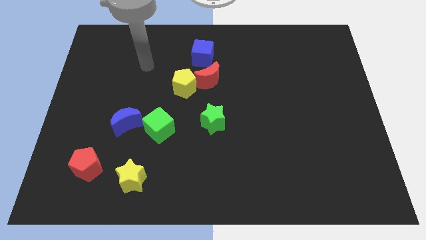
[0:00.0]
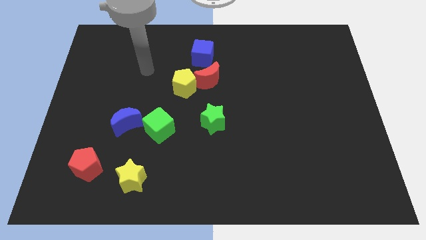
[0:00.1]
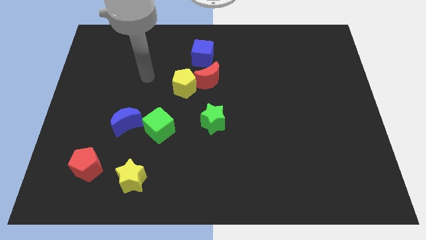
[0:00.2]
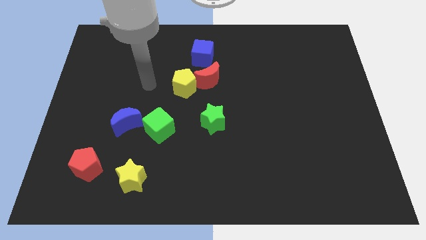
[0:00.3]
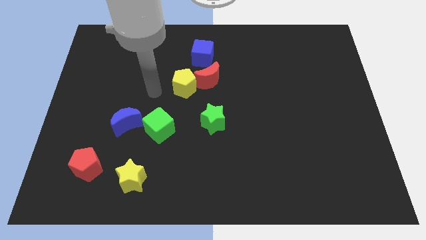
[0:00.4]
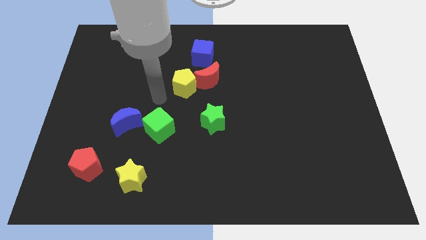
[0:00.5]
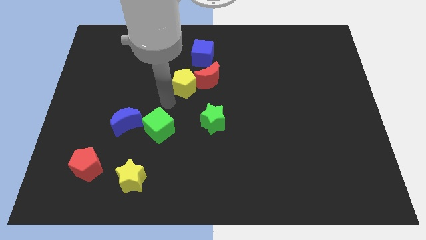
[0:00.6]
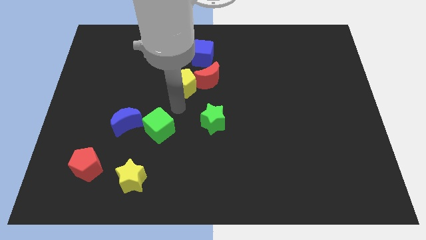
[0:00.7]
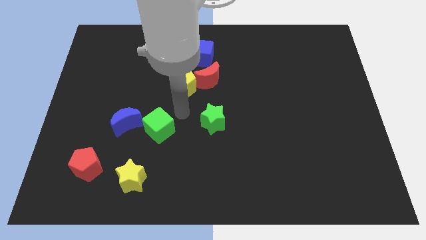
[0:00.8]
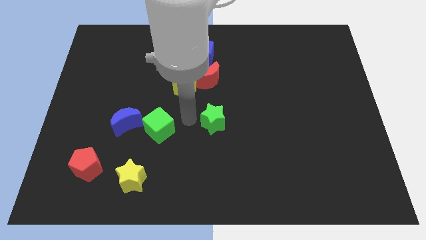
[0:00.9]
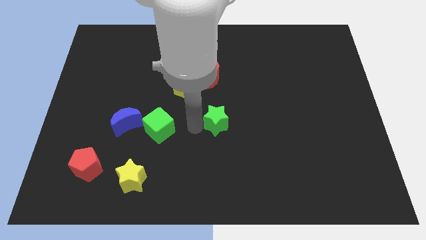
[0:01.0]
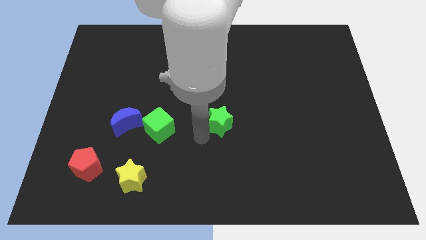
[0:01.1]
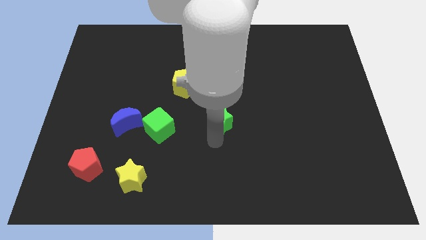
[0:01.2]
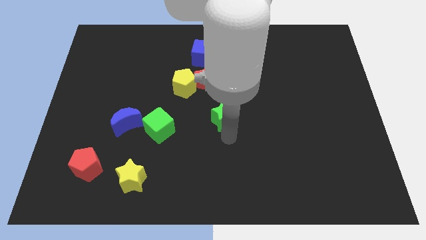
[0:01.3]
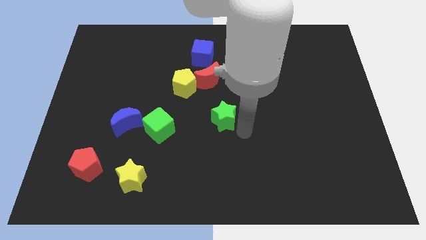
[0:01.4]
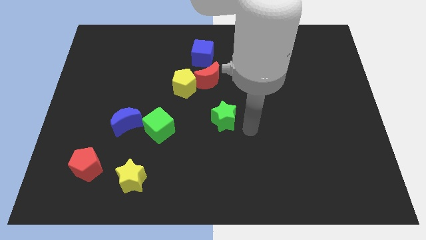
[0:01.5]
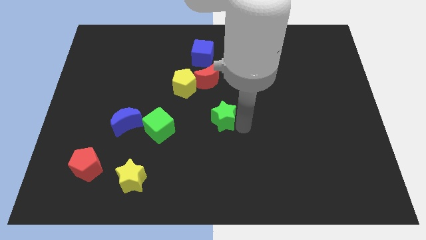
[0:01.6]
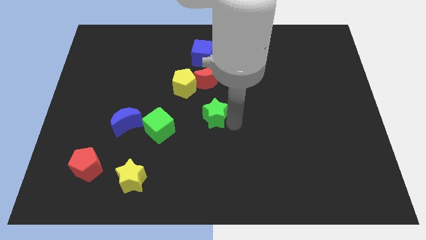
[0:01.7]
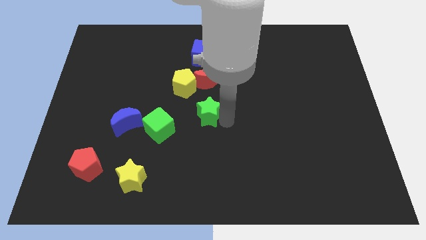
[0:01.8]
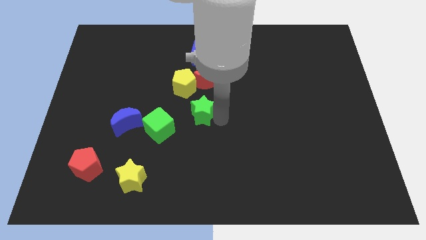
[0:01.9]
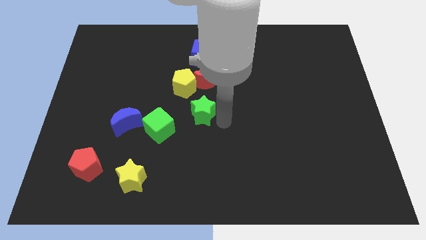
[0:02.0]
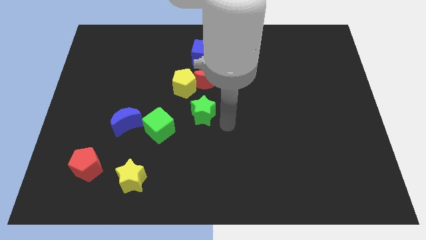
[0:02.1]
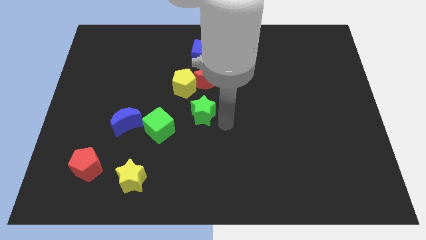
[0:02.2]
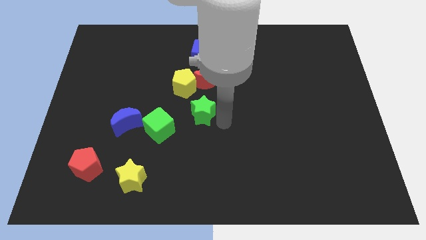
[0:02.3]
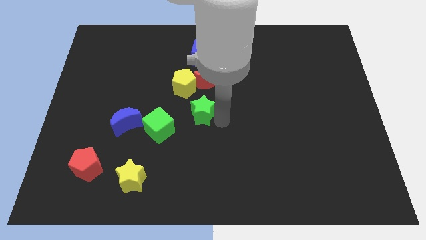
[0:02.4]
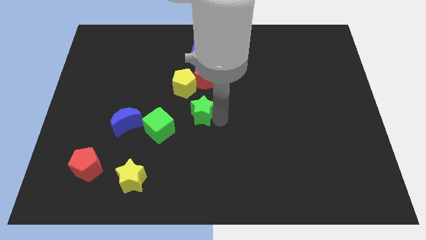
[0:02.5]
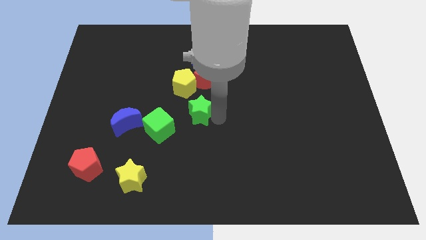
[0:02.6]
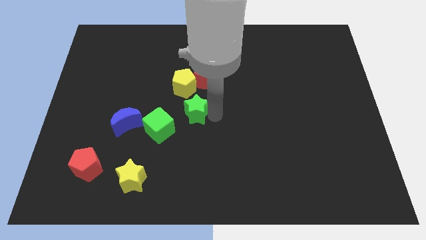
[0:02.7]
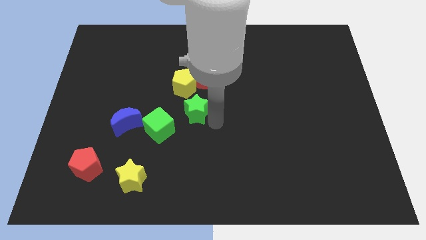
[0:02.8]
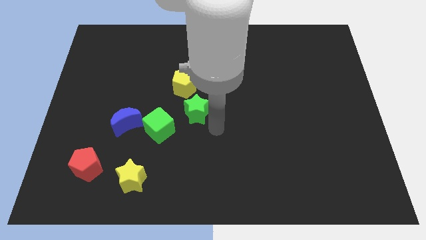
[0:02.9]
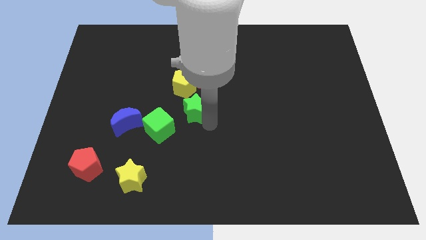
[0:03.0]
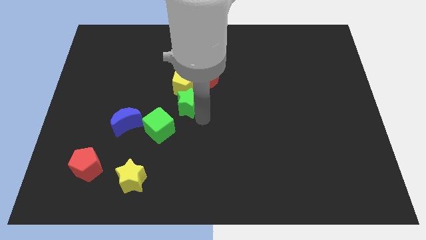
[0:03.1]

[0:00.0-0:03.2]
push the green star a little bit upwards and to the left diagonally

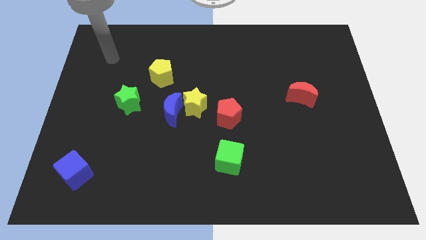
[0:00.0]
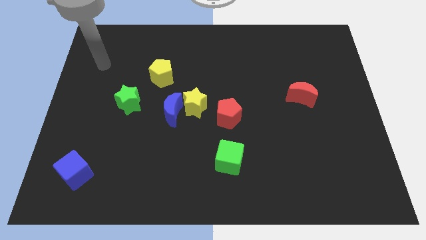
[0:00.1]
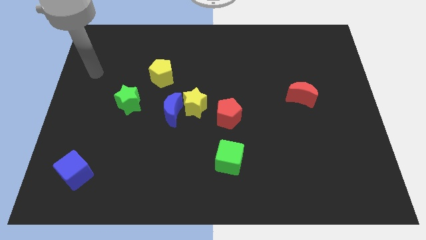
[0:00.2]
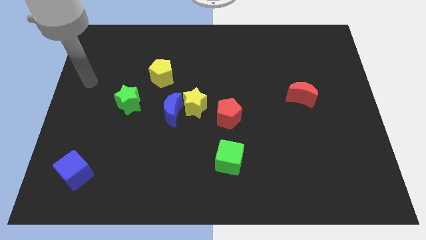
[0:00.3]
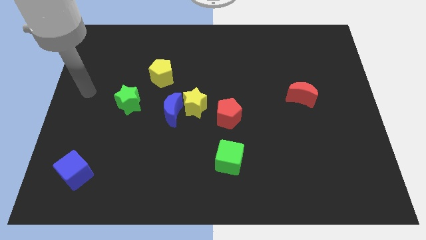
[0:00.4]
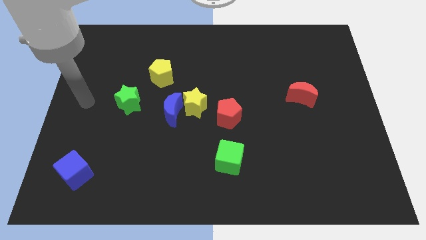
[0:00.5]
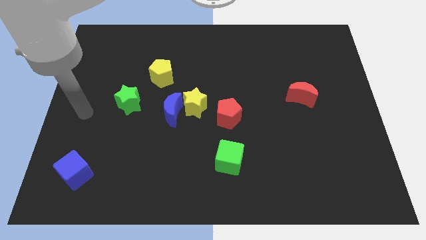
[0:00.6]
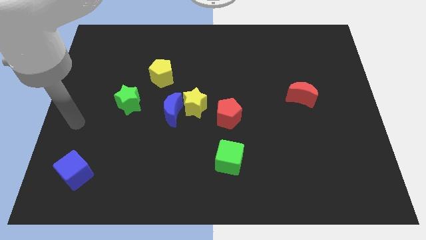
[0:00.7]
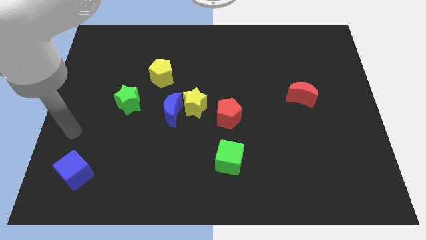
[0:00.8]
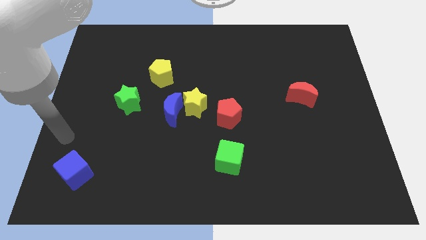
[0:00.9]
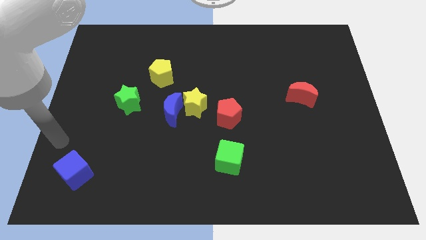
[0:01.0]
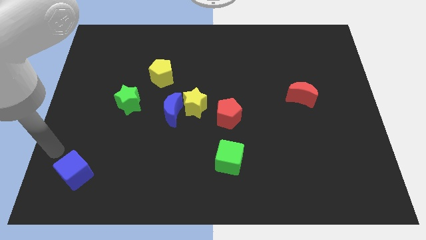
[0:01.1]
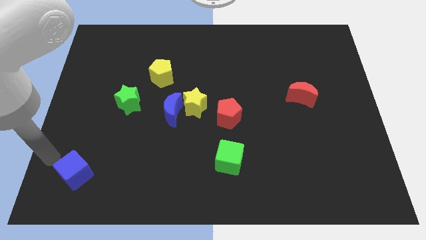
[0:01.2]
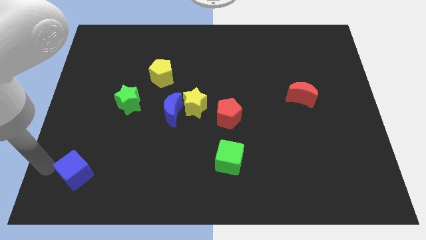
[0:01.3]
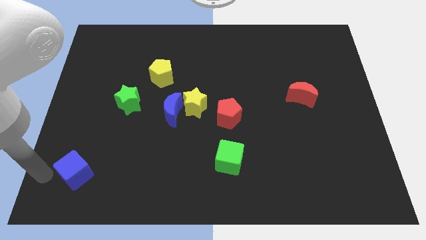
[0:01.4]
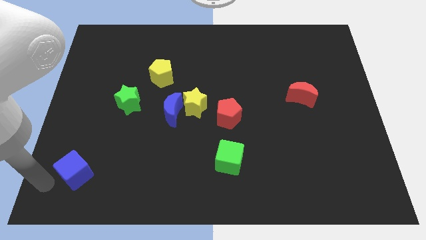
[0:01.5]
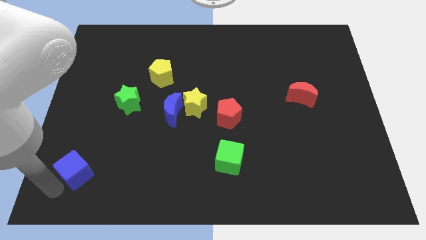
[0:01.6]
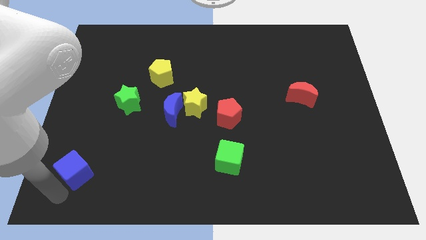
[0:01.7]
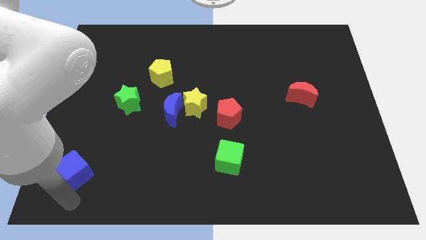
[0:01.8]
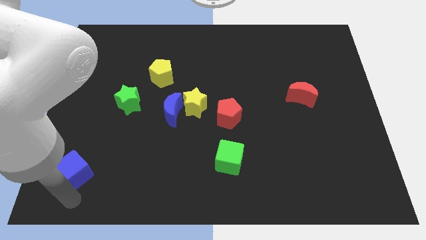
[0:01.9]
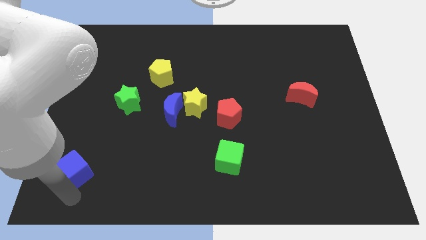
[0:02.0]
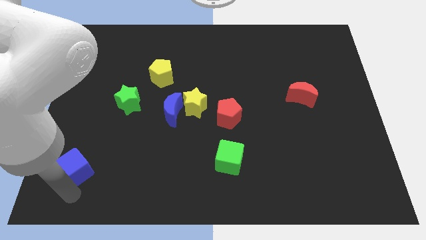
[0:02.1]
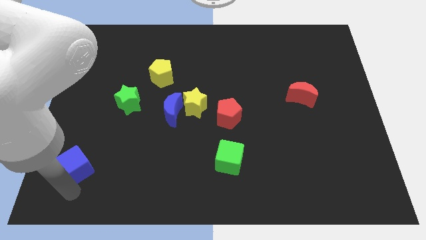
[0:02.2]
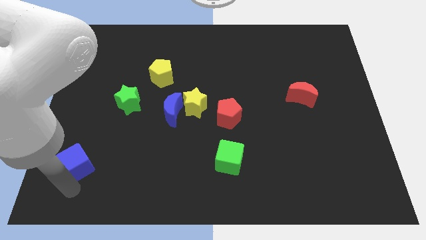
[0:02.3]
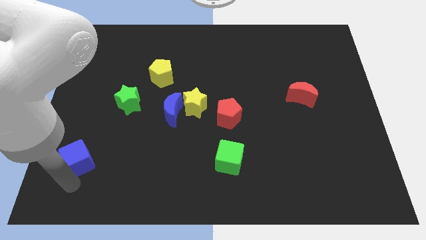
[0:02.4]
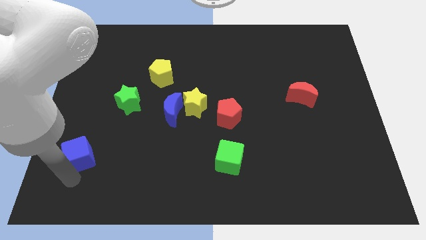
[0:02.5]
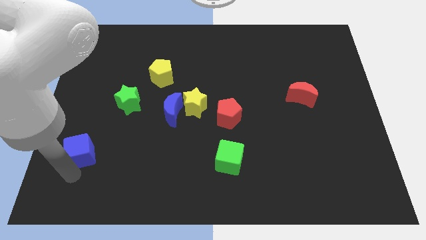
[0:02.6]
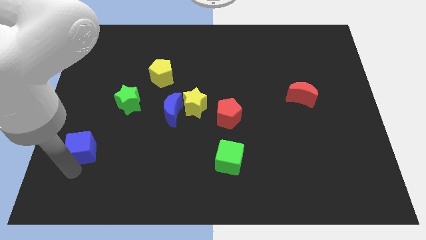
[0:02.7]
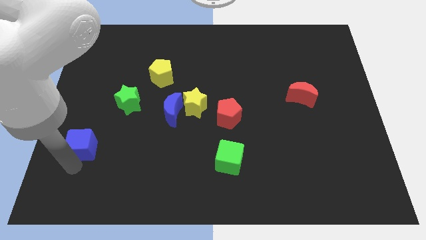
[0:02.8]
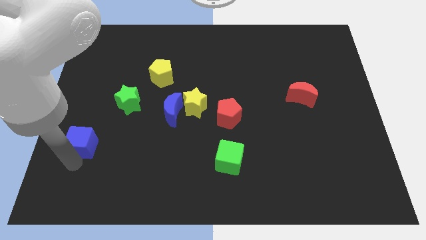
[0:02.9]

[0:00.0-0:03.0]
slide the blue cube upwards a little bit

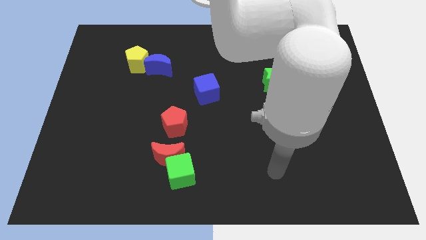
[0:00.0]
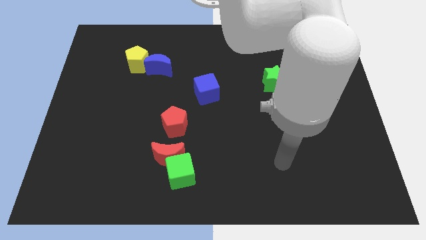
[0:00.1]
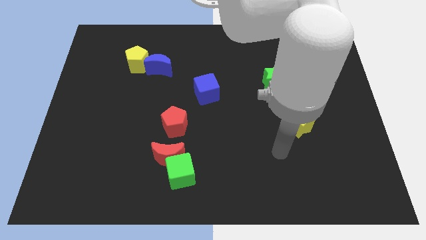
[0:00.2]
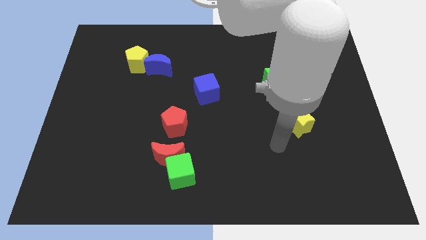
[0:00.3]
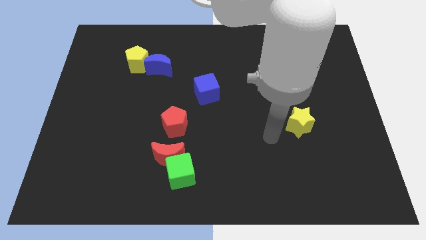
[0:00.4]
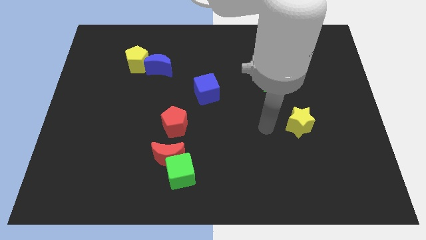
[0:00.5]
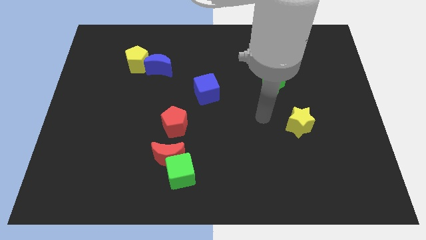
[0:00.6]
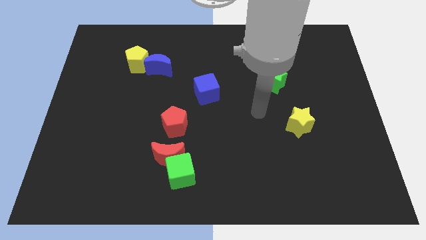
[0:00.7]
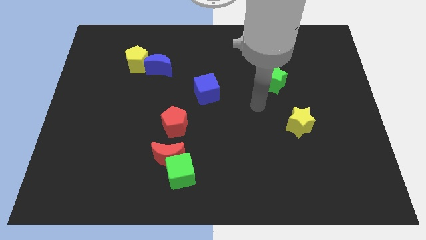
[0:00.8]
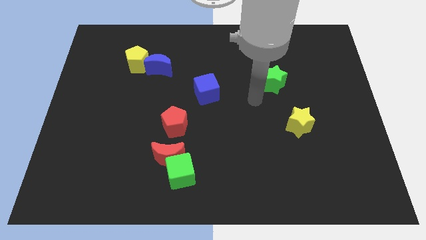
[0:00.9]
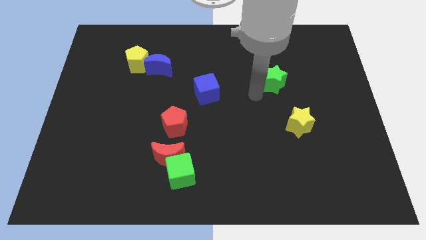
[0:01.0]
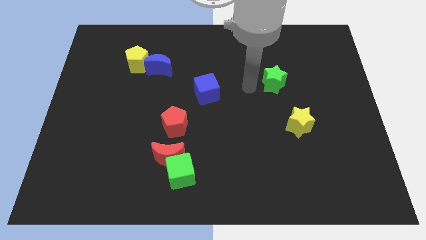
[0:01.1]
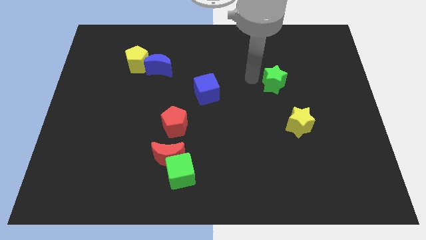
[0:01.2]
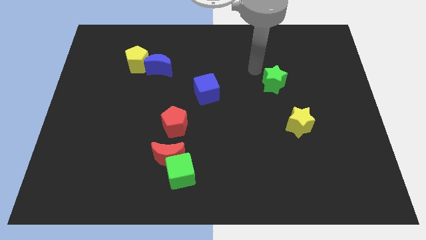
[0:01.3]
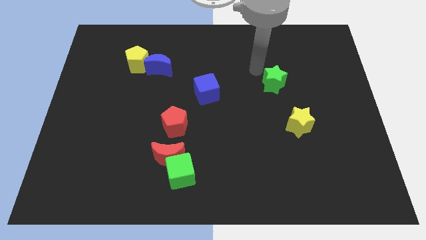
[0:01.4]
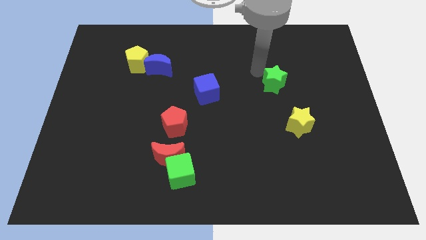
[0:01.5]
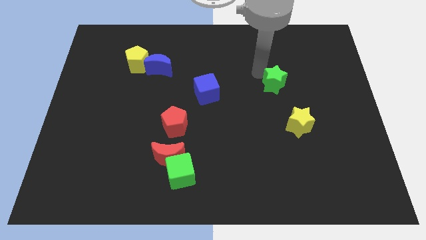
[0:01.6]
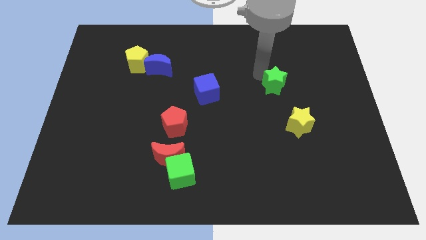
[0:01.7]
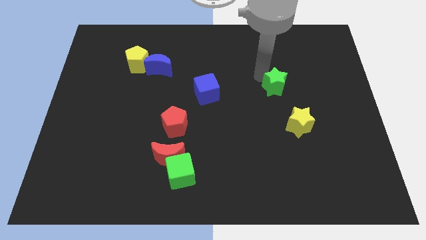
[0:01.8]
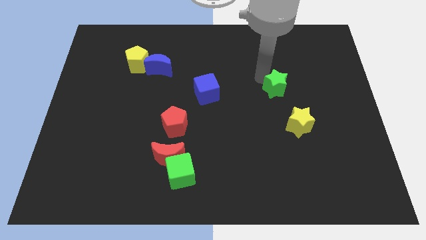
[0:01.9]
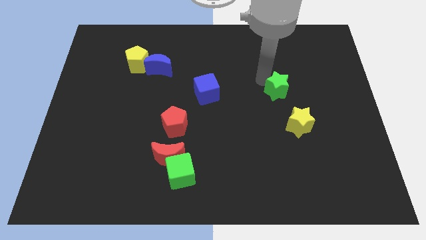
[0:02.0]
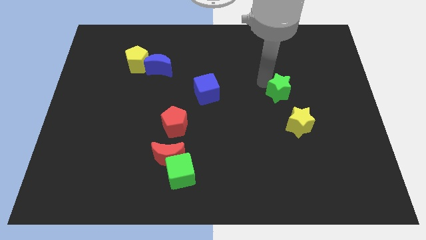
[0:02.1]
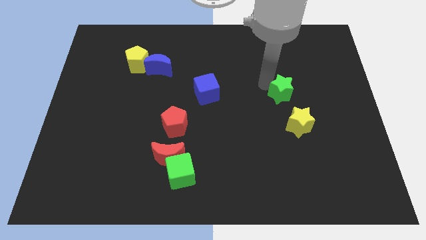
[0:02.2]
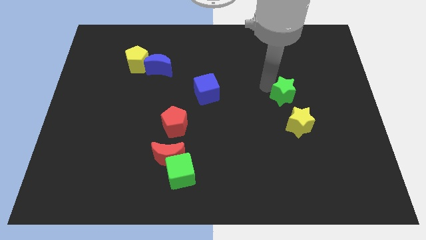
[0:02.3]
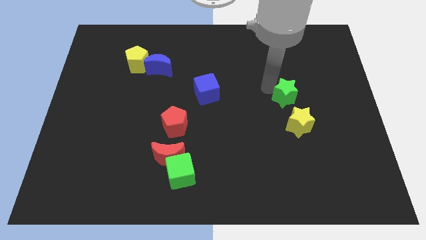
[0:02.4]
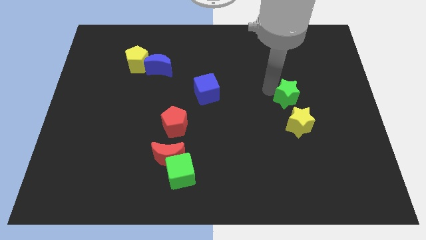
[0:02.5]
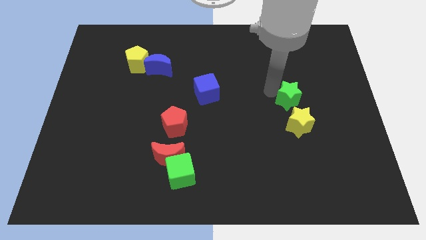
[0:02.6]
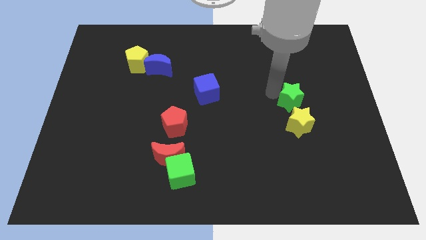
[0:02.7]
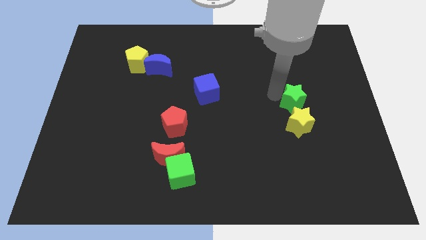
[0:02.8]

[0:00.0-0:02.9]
move the green star a little bit downwards and to the right diagonally
